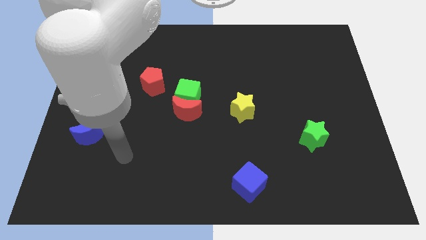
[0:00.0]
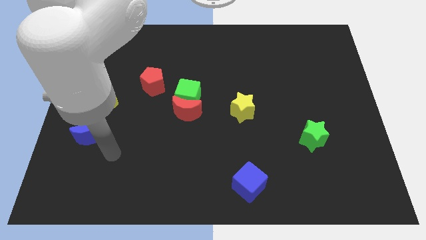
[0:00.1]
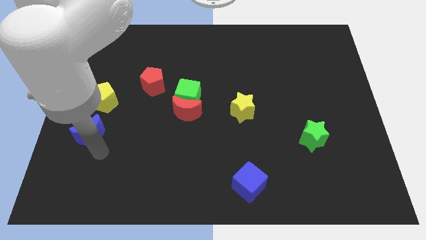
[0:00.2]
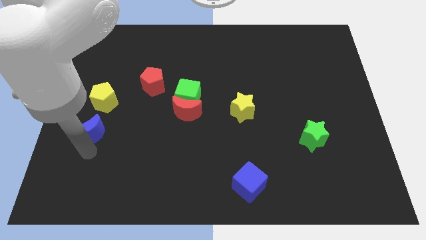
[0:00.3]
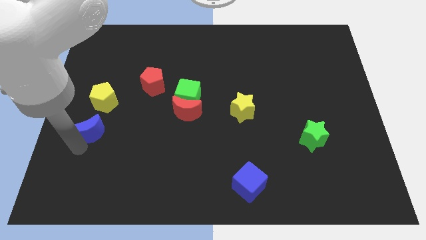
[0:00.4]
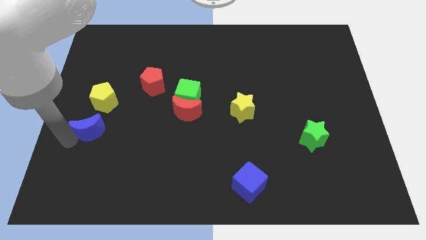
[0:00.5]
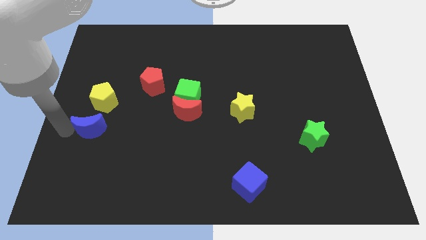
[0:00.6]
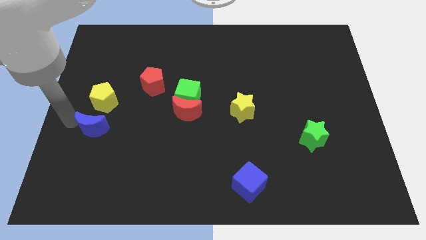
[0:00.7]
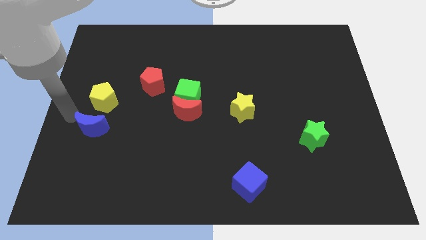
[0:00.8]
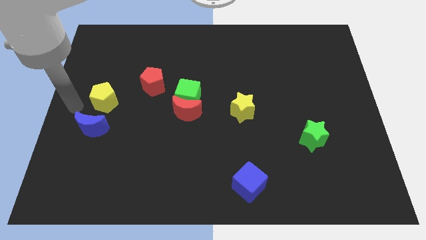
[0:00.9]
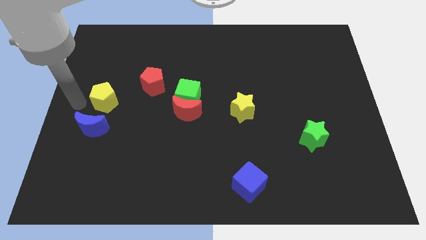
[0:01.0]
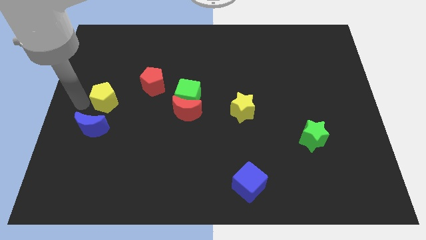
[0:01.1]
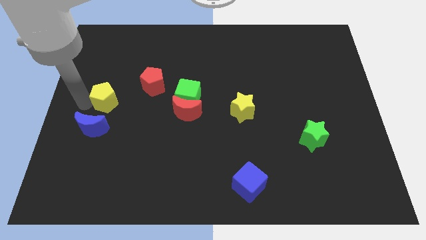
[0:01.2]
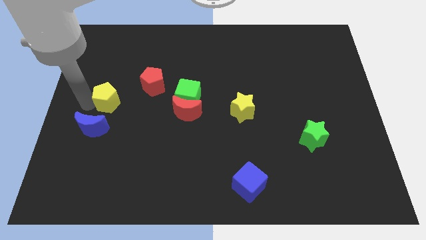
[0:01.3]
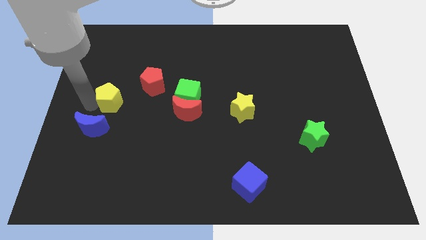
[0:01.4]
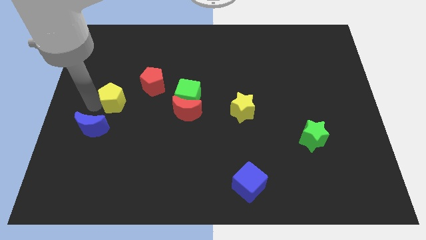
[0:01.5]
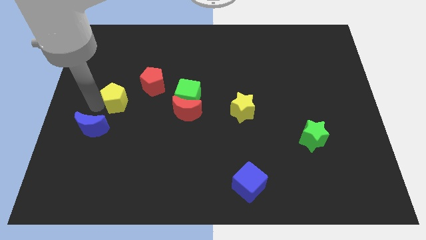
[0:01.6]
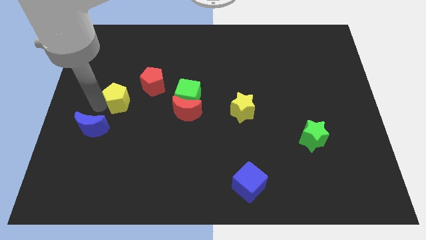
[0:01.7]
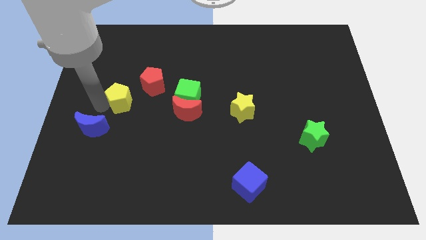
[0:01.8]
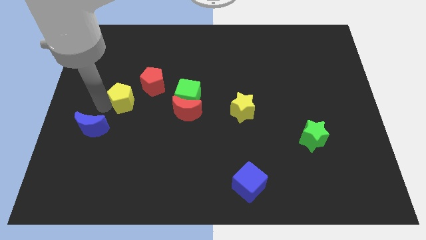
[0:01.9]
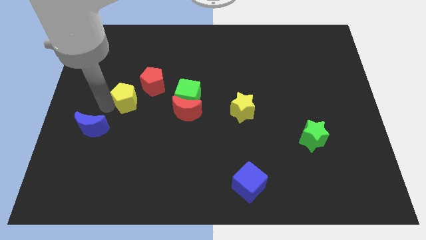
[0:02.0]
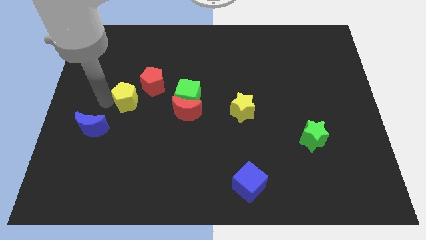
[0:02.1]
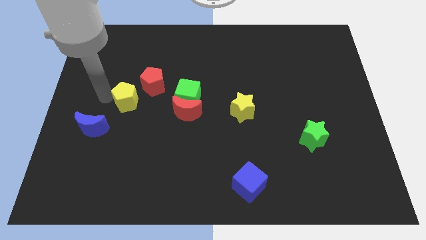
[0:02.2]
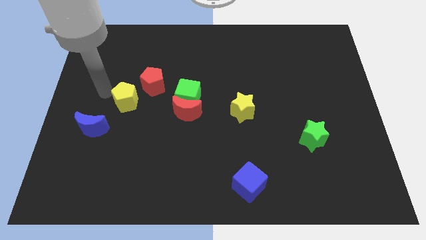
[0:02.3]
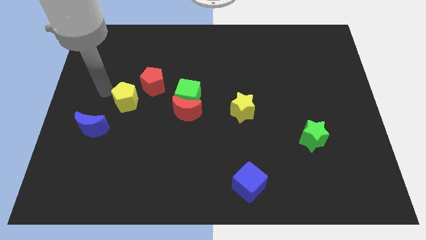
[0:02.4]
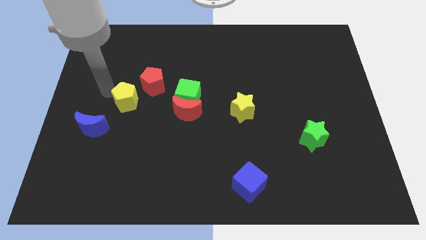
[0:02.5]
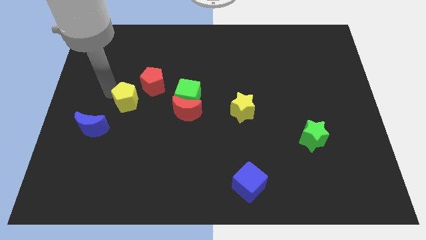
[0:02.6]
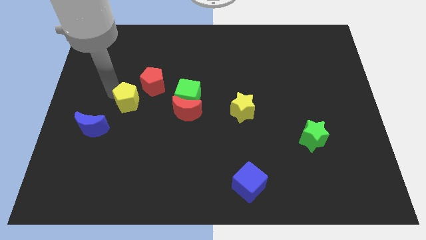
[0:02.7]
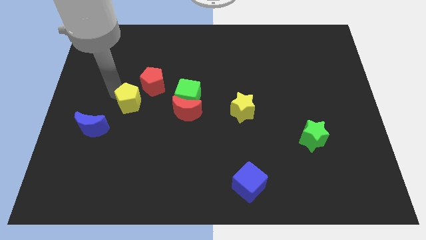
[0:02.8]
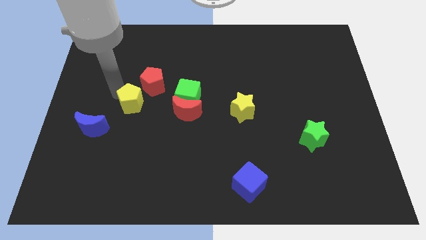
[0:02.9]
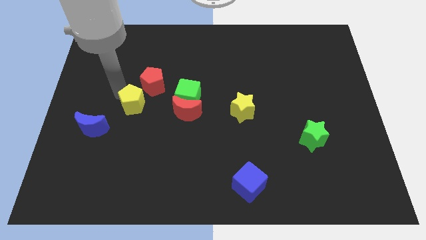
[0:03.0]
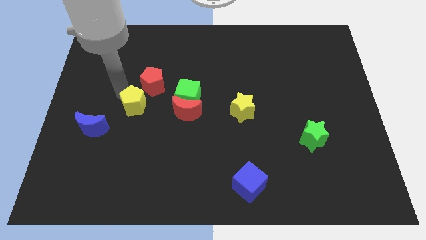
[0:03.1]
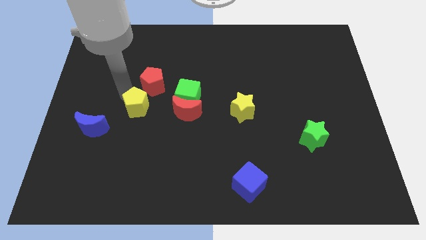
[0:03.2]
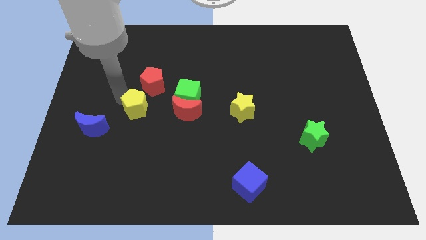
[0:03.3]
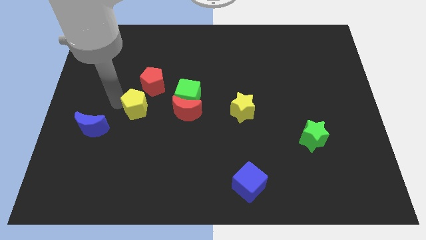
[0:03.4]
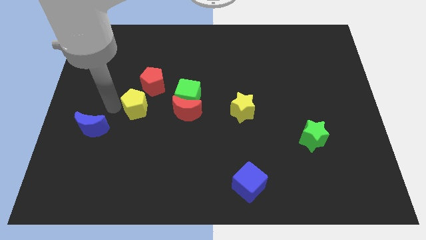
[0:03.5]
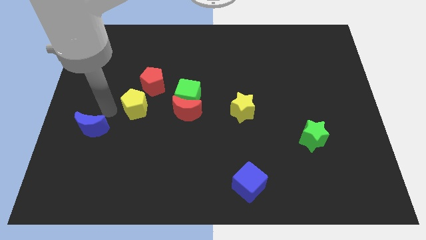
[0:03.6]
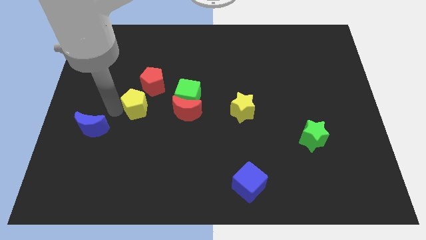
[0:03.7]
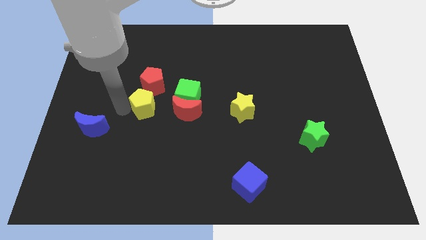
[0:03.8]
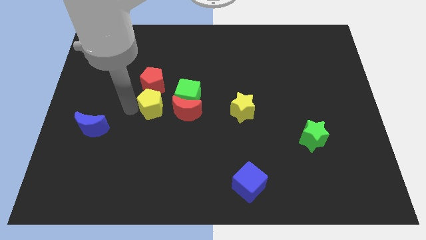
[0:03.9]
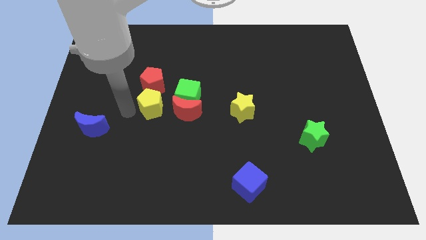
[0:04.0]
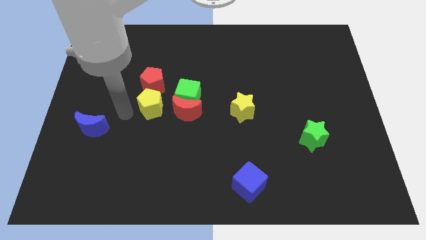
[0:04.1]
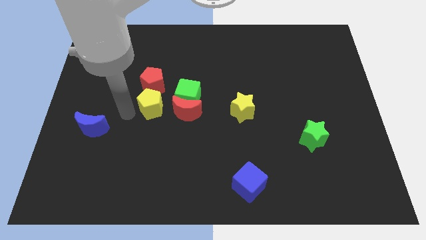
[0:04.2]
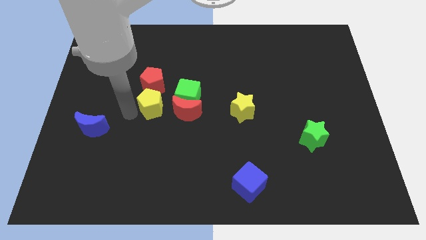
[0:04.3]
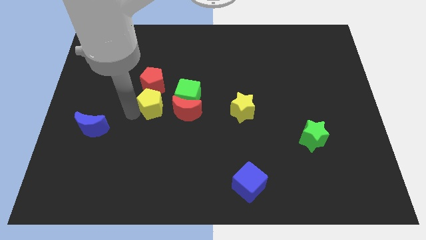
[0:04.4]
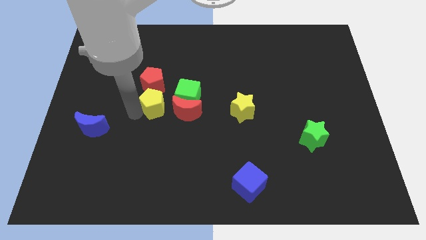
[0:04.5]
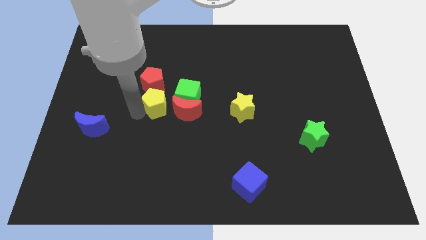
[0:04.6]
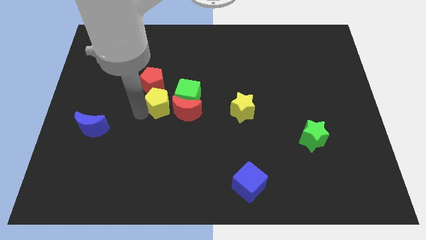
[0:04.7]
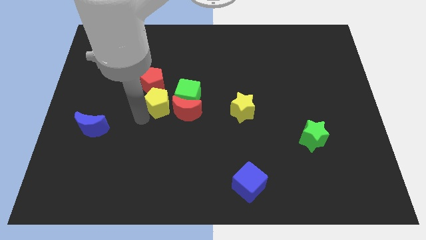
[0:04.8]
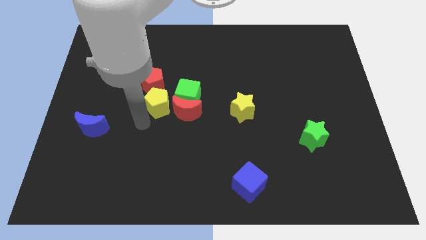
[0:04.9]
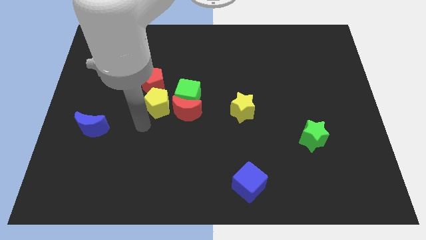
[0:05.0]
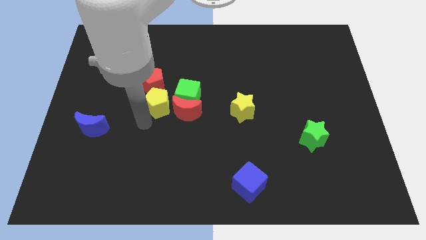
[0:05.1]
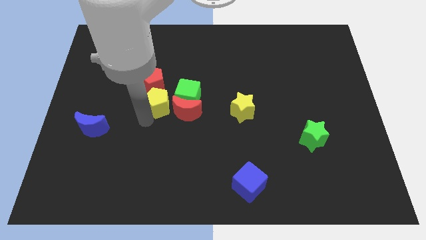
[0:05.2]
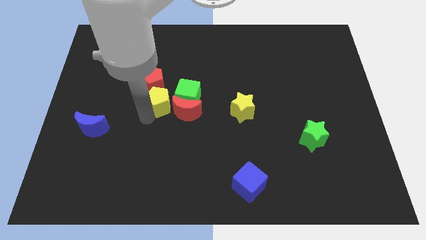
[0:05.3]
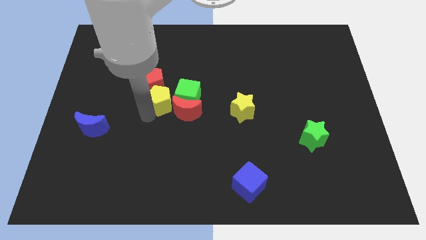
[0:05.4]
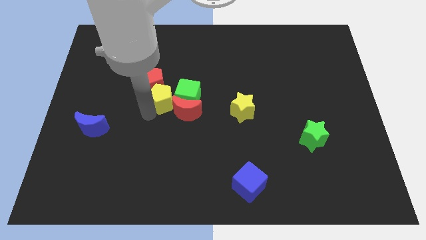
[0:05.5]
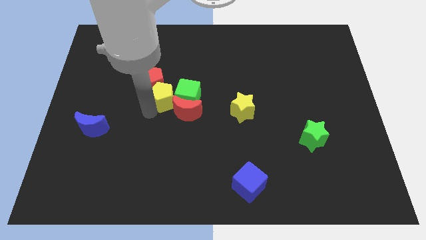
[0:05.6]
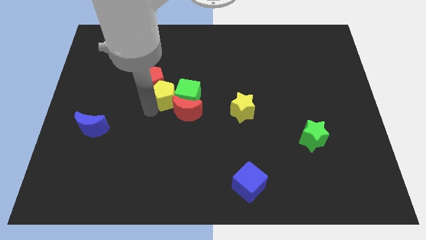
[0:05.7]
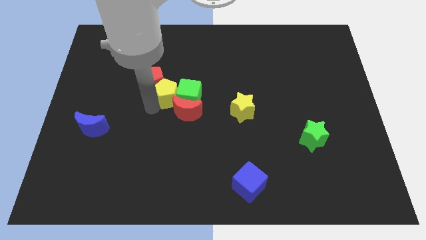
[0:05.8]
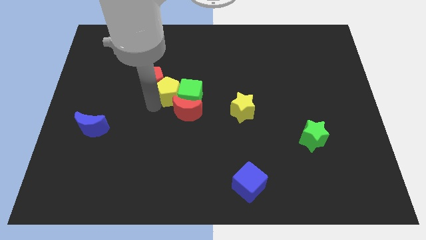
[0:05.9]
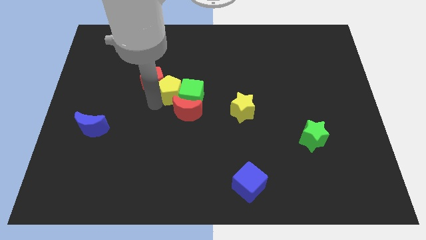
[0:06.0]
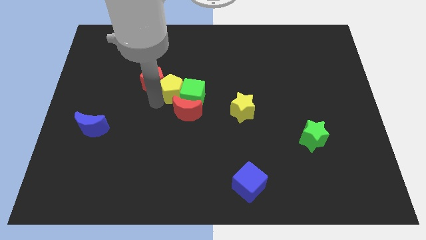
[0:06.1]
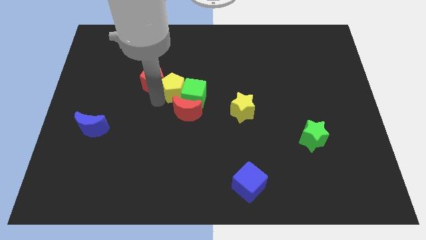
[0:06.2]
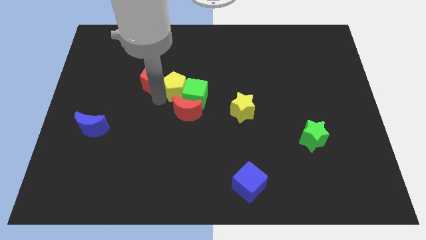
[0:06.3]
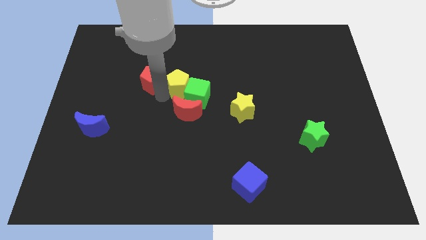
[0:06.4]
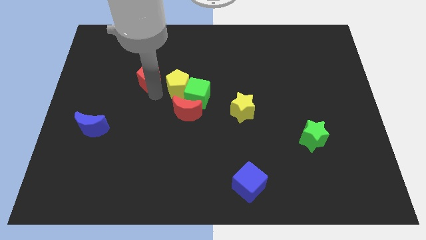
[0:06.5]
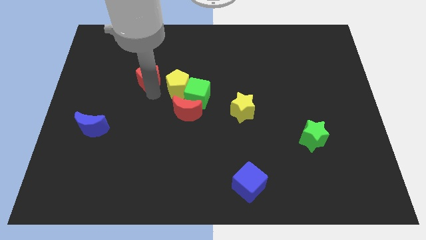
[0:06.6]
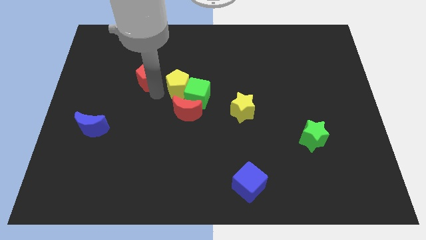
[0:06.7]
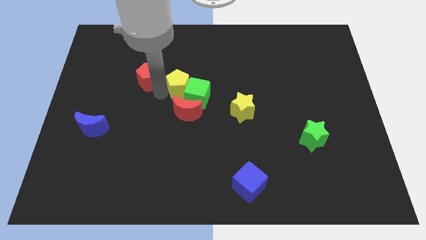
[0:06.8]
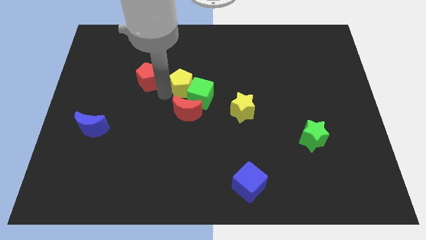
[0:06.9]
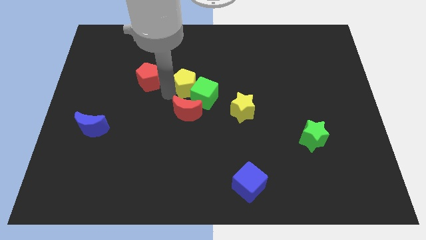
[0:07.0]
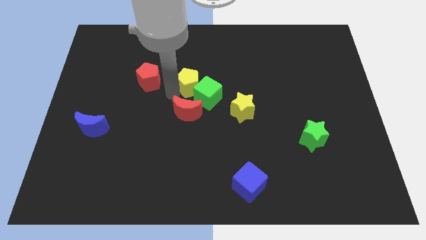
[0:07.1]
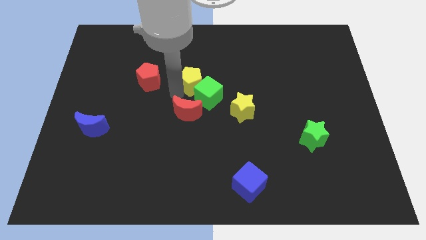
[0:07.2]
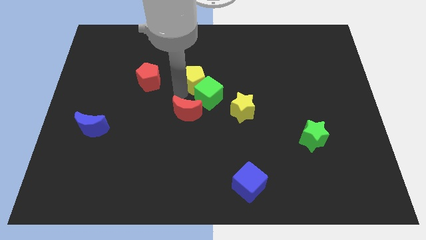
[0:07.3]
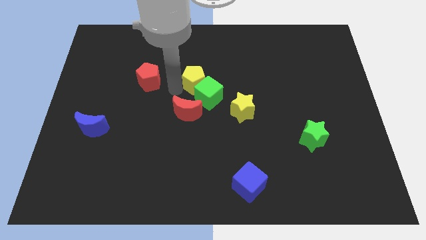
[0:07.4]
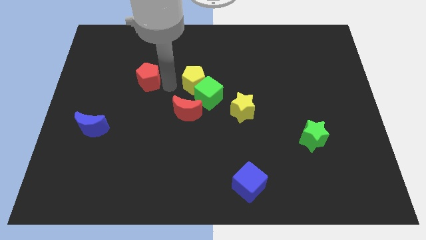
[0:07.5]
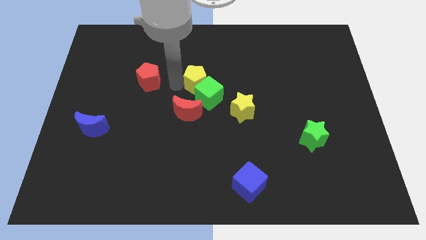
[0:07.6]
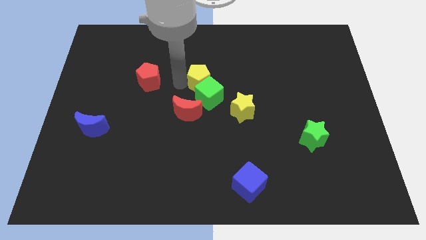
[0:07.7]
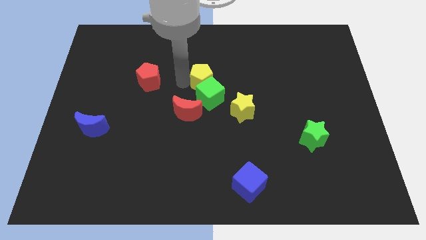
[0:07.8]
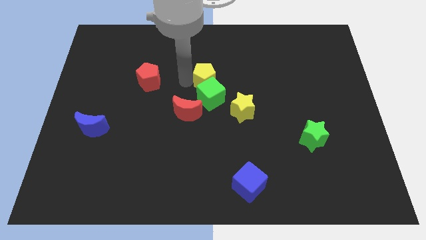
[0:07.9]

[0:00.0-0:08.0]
move the yellow pentagon diagonally up and to the right of the green cube
